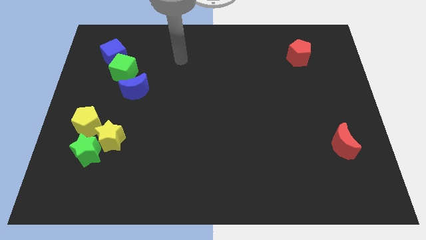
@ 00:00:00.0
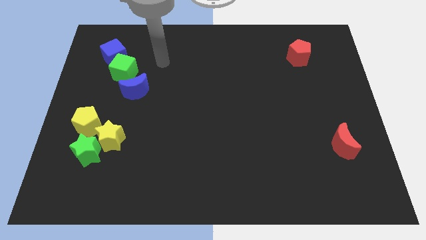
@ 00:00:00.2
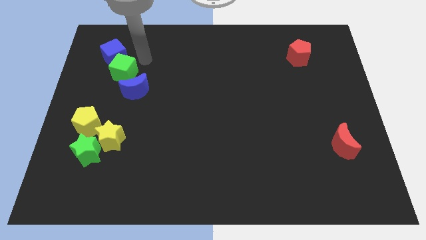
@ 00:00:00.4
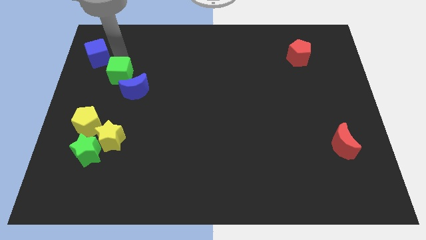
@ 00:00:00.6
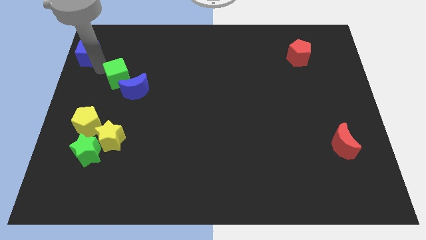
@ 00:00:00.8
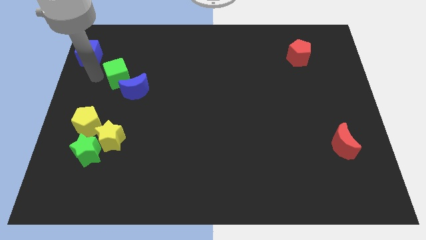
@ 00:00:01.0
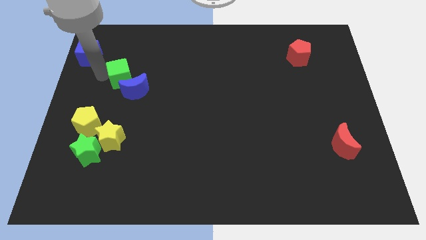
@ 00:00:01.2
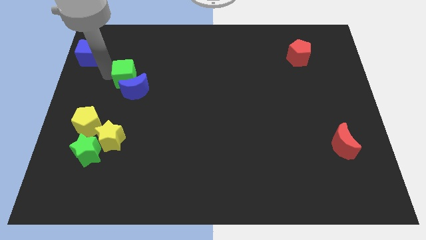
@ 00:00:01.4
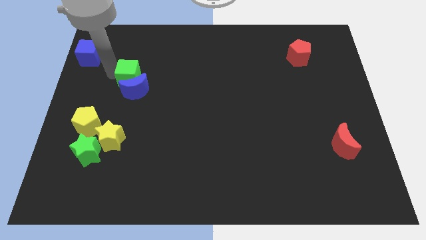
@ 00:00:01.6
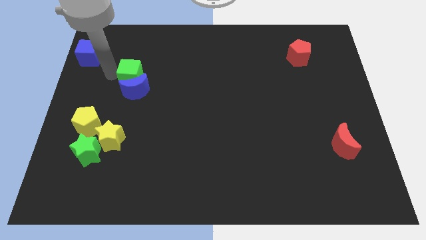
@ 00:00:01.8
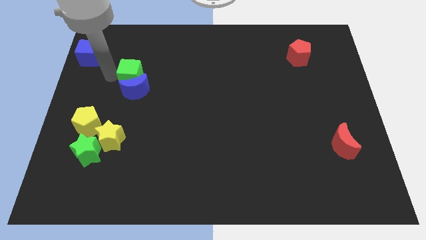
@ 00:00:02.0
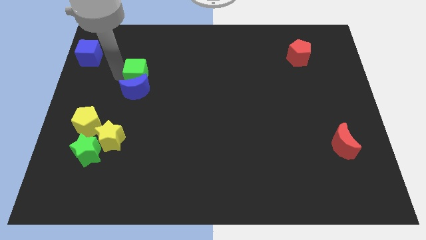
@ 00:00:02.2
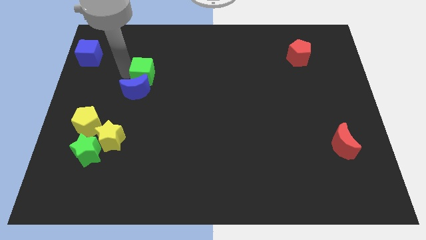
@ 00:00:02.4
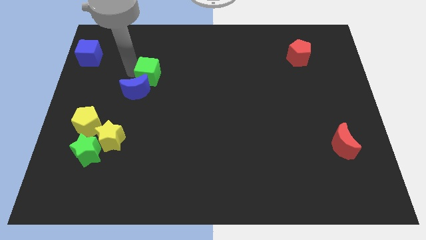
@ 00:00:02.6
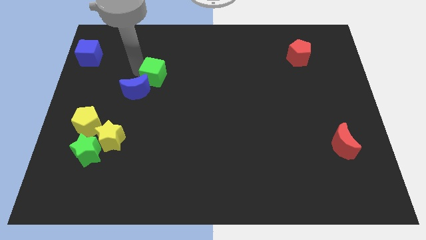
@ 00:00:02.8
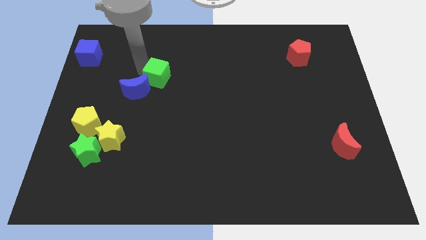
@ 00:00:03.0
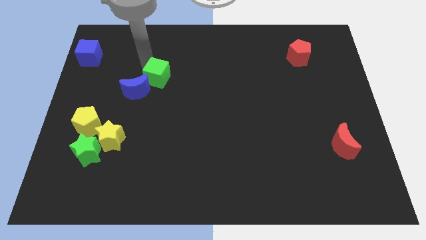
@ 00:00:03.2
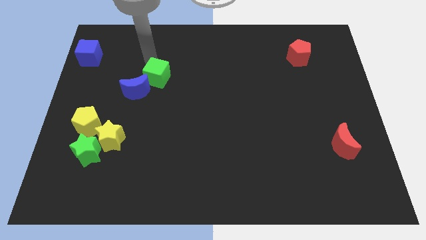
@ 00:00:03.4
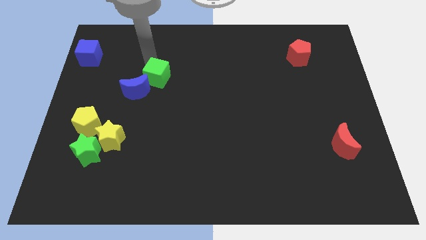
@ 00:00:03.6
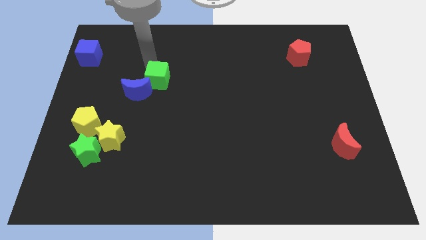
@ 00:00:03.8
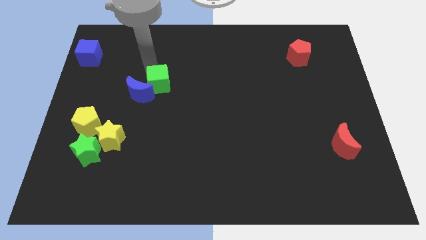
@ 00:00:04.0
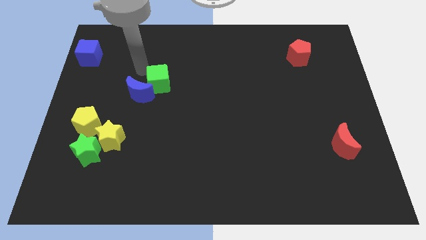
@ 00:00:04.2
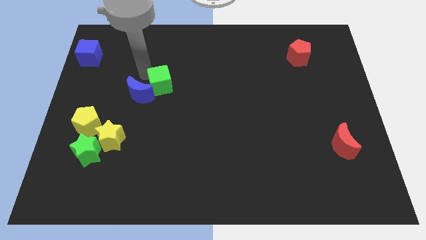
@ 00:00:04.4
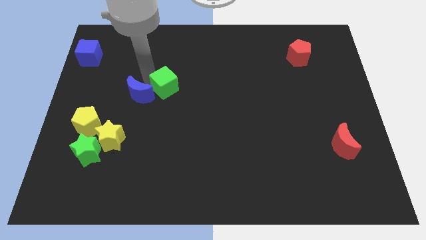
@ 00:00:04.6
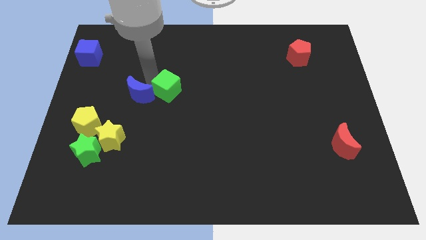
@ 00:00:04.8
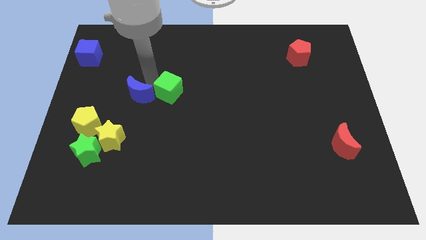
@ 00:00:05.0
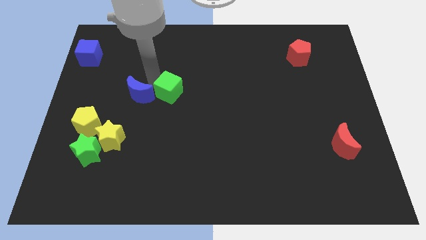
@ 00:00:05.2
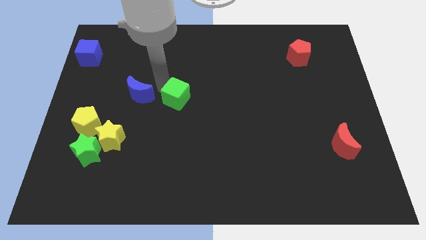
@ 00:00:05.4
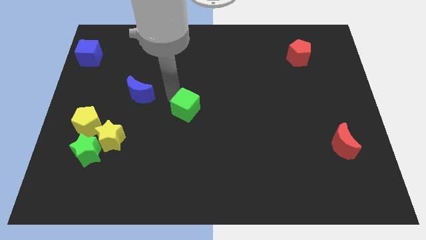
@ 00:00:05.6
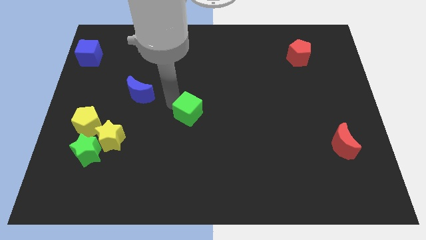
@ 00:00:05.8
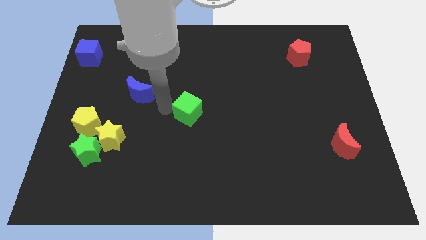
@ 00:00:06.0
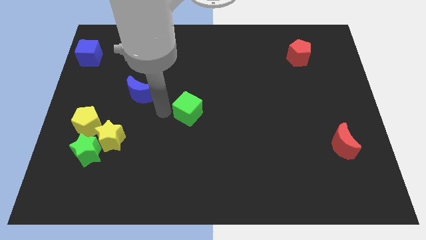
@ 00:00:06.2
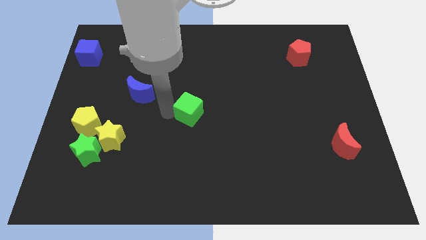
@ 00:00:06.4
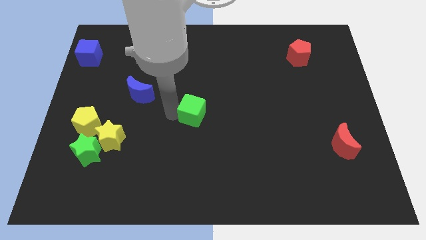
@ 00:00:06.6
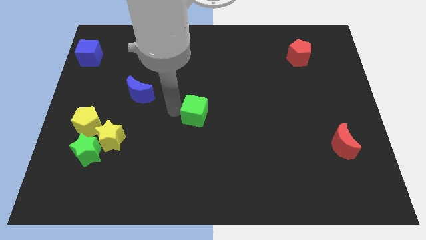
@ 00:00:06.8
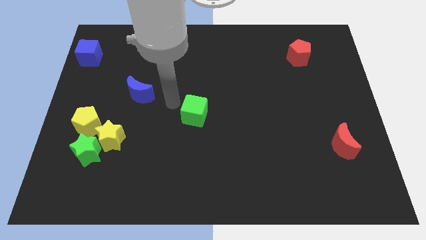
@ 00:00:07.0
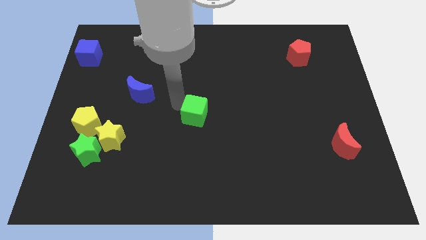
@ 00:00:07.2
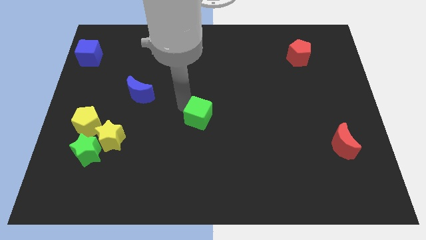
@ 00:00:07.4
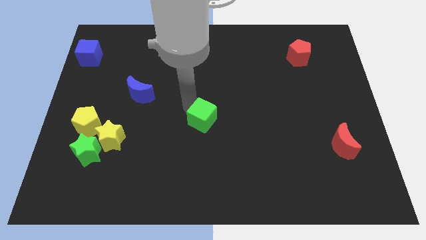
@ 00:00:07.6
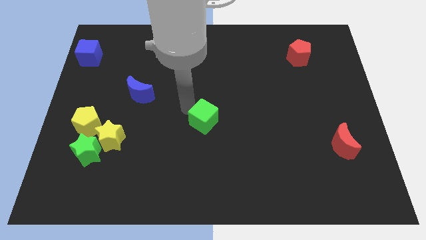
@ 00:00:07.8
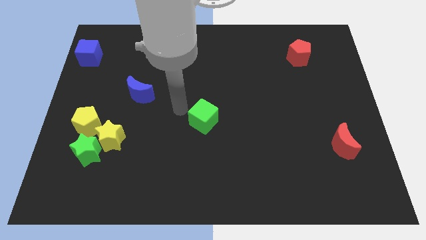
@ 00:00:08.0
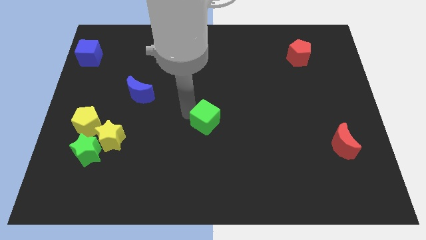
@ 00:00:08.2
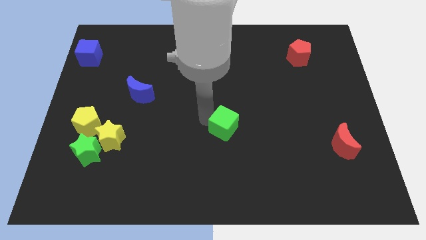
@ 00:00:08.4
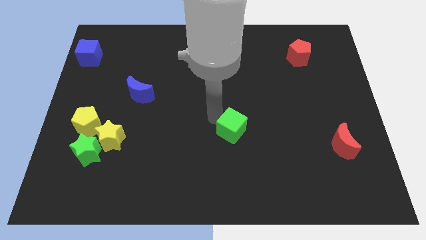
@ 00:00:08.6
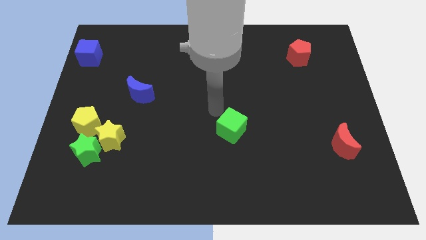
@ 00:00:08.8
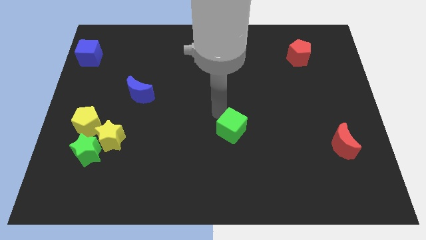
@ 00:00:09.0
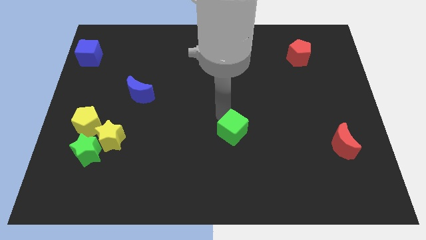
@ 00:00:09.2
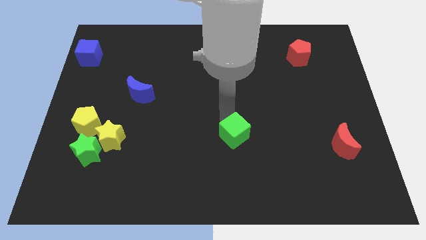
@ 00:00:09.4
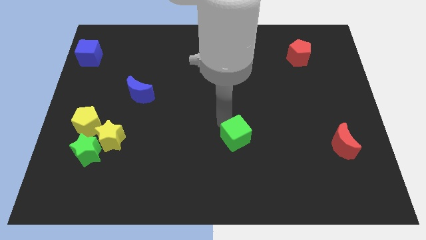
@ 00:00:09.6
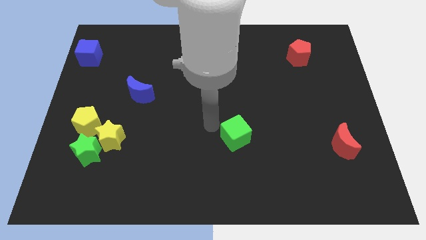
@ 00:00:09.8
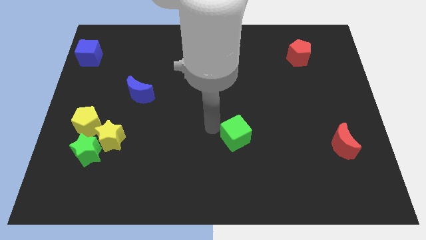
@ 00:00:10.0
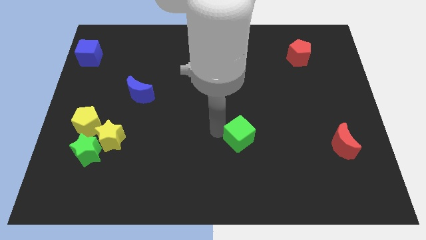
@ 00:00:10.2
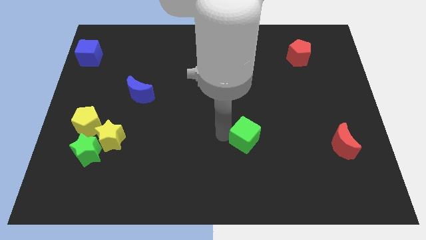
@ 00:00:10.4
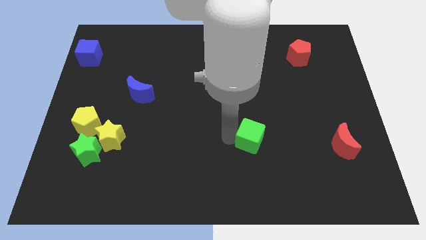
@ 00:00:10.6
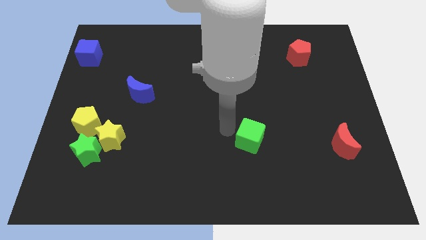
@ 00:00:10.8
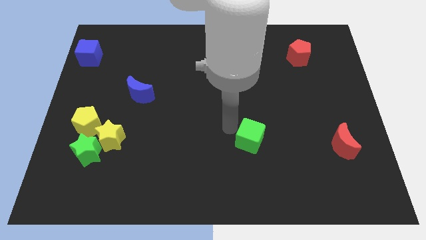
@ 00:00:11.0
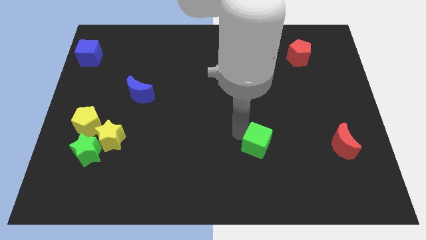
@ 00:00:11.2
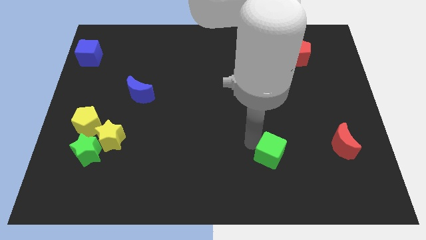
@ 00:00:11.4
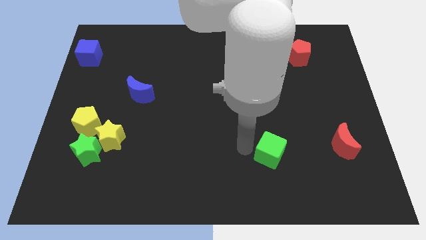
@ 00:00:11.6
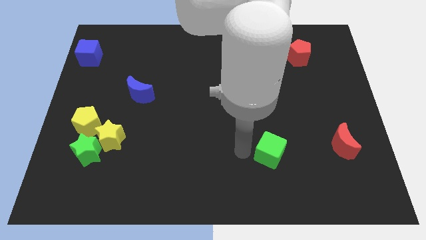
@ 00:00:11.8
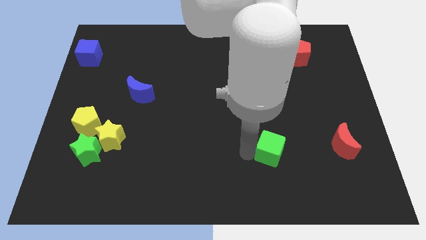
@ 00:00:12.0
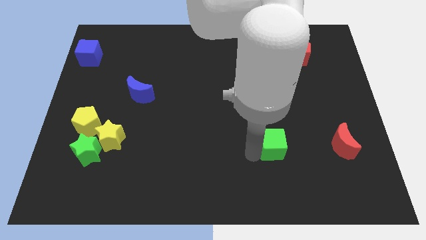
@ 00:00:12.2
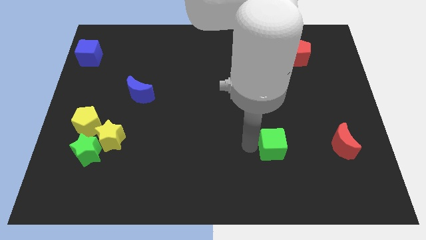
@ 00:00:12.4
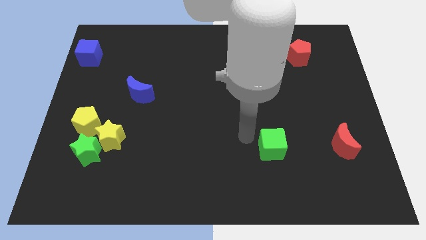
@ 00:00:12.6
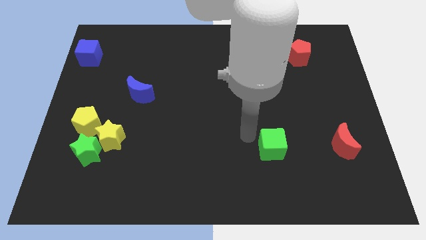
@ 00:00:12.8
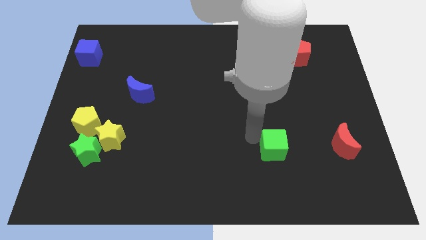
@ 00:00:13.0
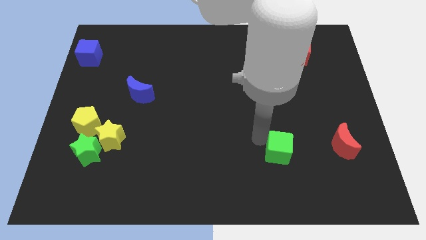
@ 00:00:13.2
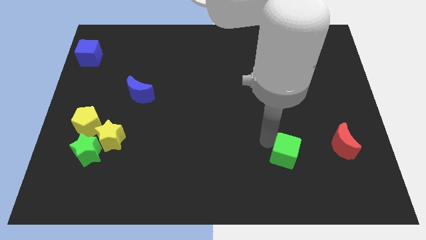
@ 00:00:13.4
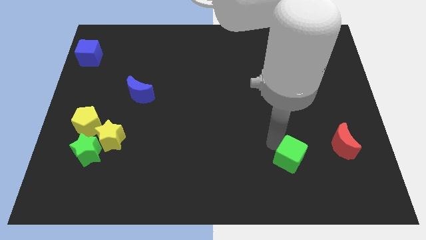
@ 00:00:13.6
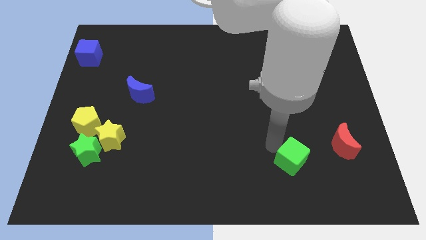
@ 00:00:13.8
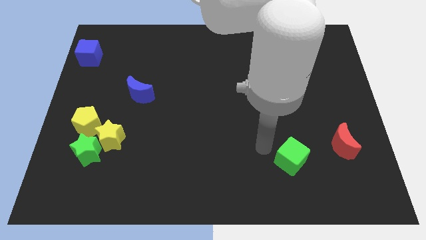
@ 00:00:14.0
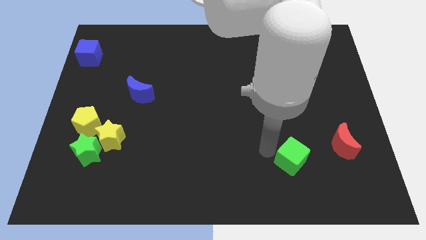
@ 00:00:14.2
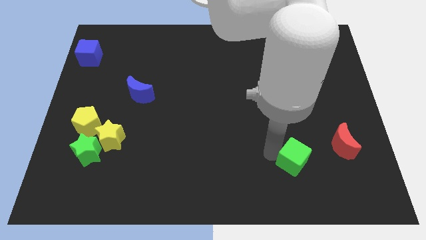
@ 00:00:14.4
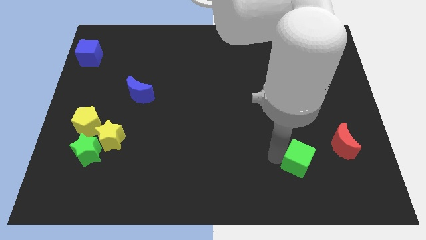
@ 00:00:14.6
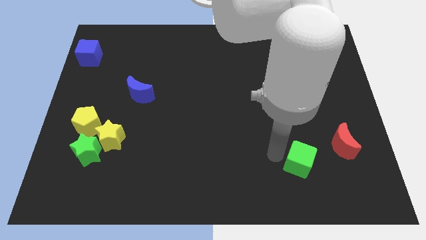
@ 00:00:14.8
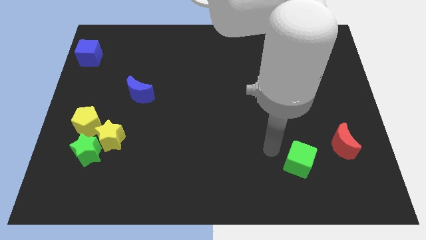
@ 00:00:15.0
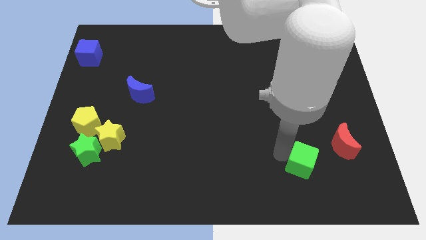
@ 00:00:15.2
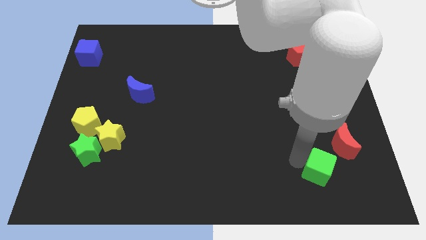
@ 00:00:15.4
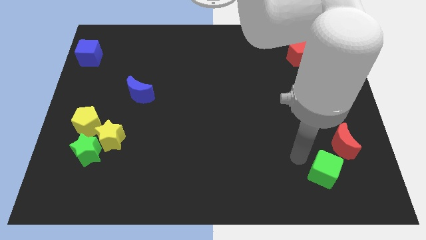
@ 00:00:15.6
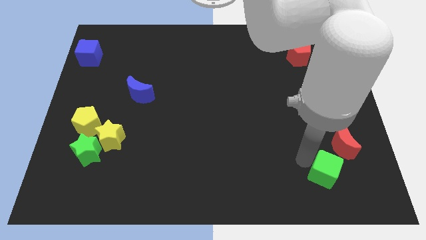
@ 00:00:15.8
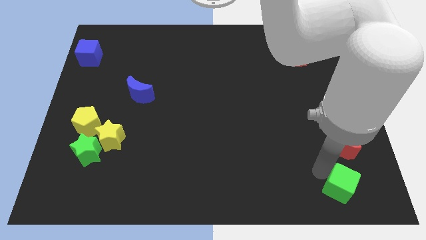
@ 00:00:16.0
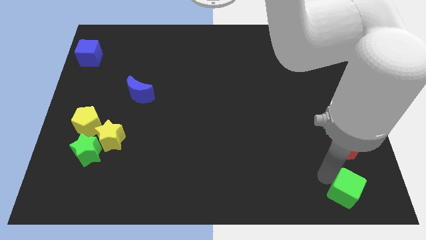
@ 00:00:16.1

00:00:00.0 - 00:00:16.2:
slide the green cube to the bottom right of the board
